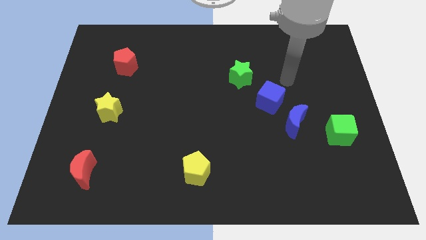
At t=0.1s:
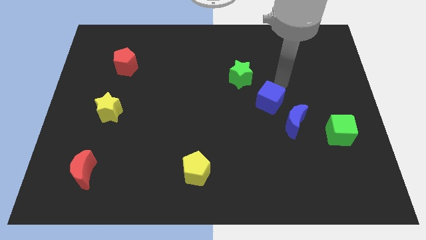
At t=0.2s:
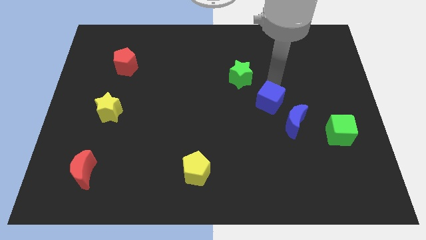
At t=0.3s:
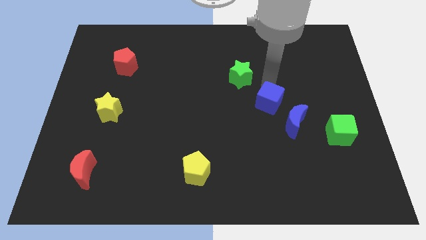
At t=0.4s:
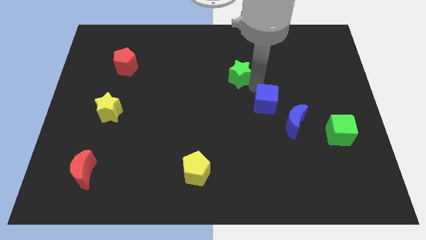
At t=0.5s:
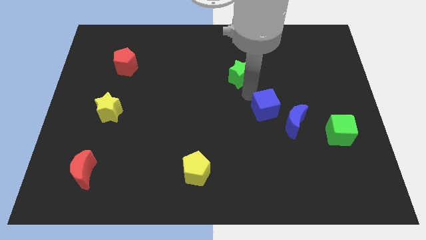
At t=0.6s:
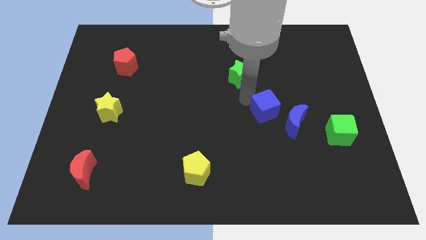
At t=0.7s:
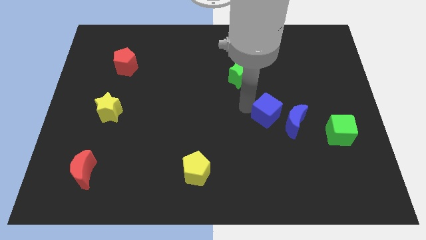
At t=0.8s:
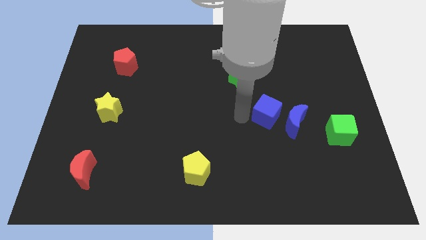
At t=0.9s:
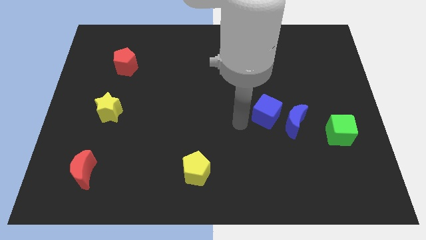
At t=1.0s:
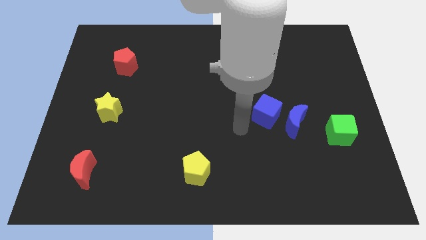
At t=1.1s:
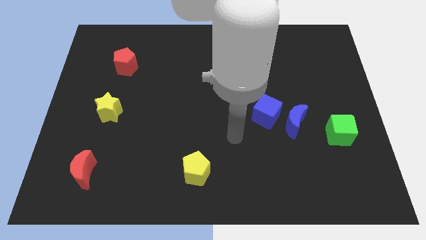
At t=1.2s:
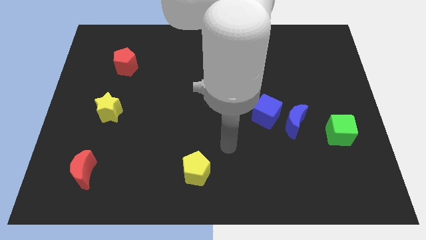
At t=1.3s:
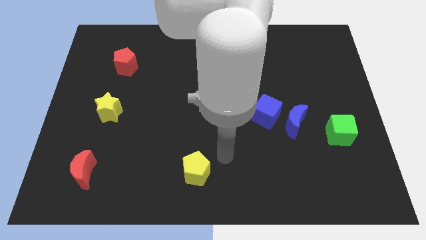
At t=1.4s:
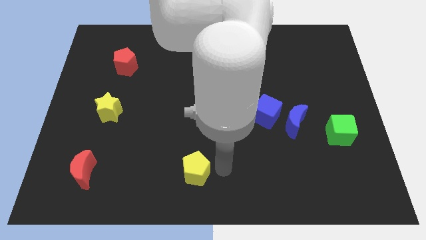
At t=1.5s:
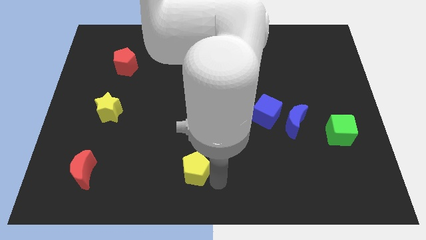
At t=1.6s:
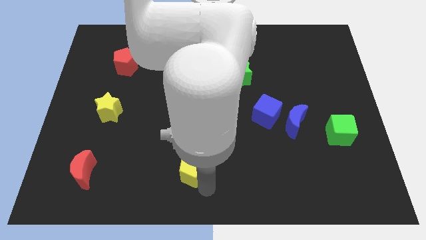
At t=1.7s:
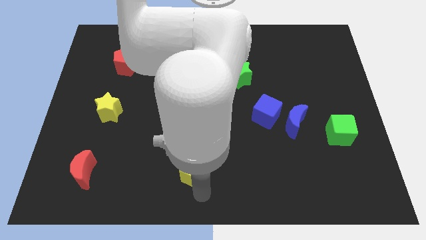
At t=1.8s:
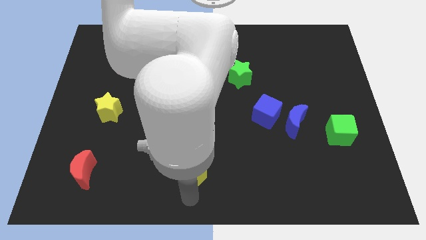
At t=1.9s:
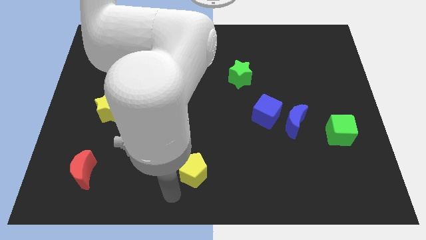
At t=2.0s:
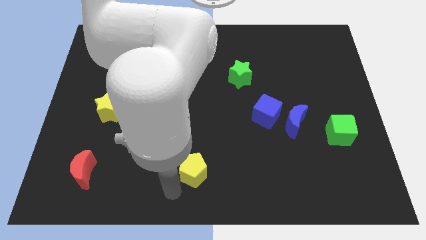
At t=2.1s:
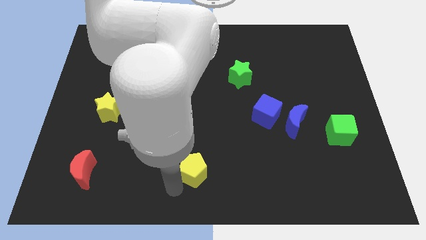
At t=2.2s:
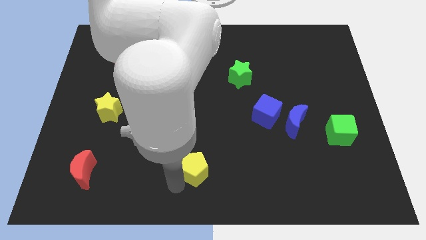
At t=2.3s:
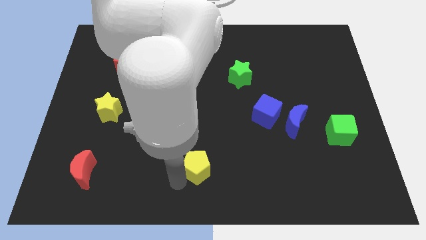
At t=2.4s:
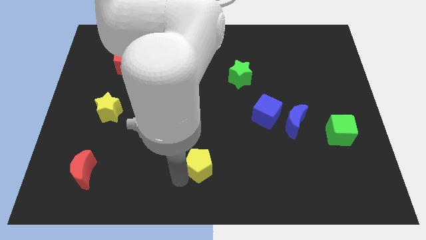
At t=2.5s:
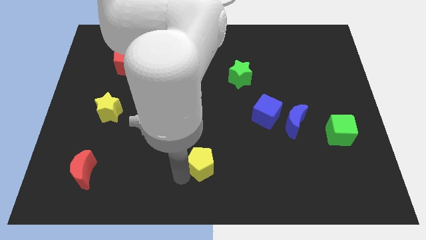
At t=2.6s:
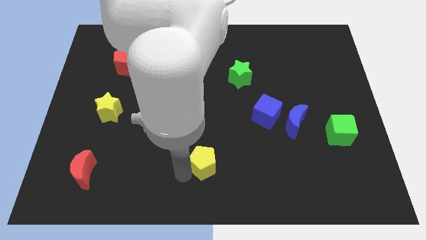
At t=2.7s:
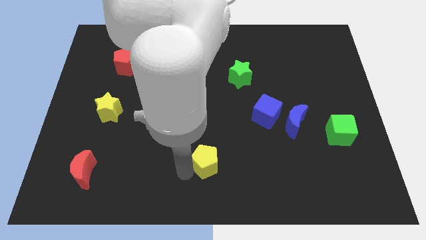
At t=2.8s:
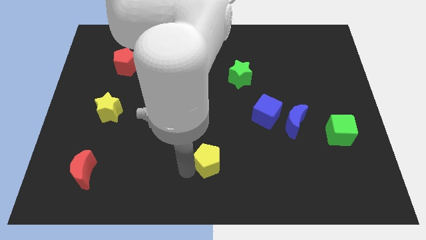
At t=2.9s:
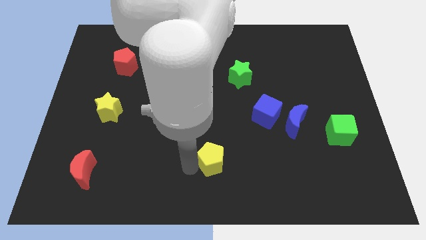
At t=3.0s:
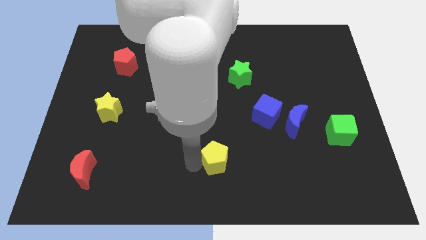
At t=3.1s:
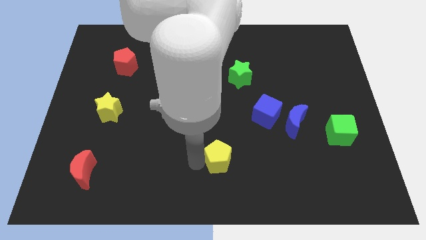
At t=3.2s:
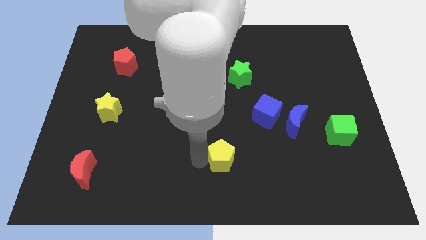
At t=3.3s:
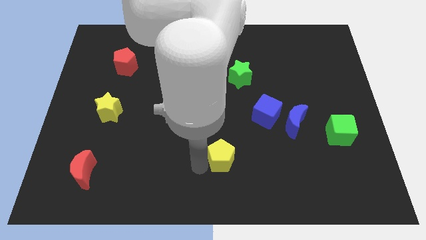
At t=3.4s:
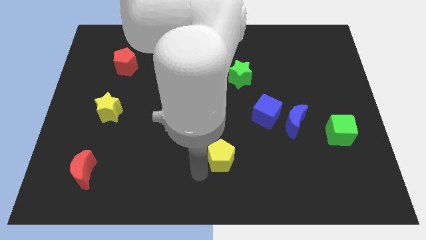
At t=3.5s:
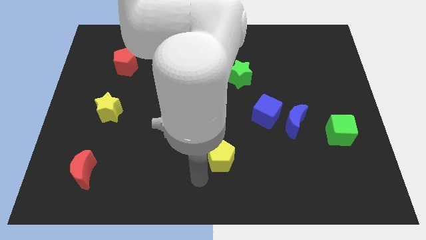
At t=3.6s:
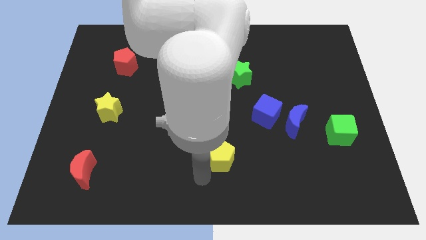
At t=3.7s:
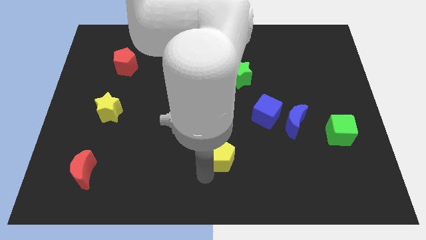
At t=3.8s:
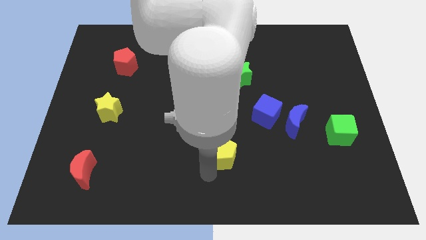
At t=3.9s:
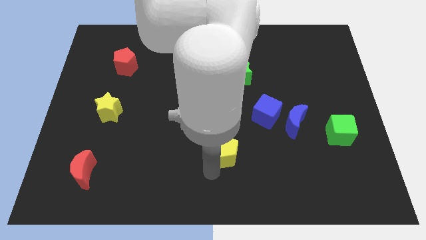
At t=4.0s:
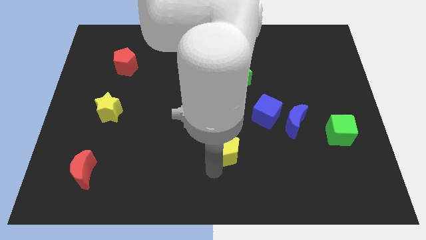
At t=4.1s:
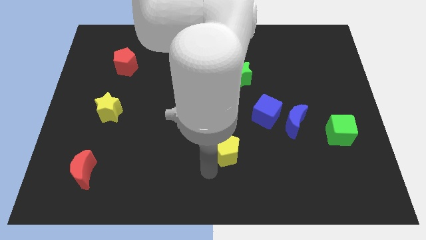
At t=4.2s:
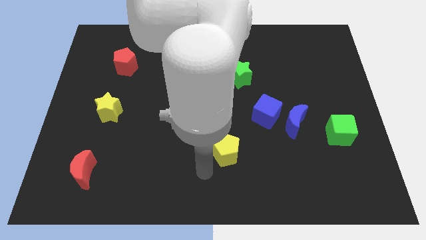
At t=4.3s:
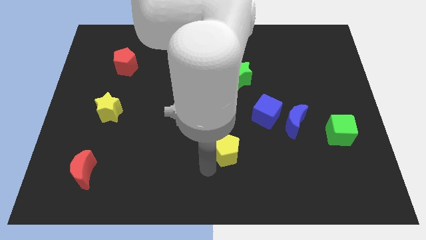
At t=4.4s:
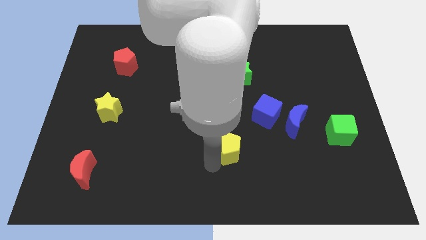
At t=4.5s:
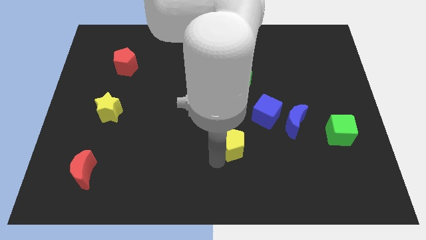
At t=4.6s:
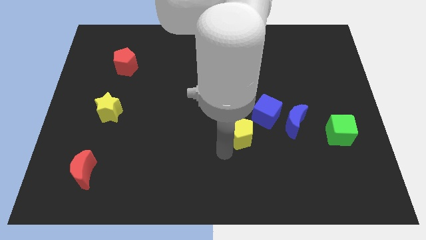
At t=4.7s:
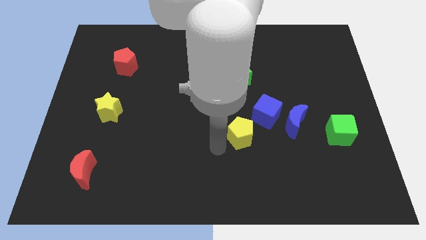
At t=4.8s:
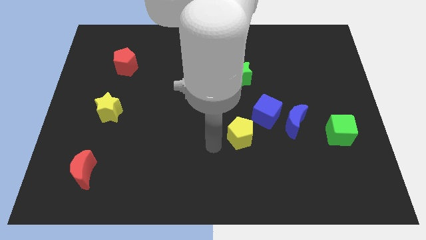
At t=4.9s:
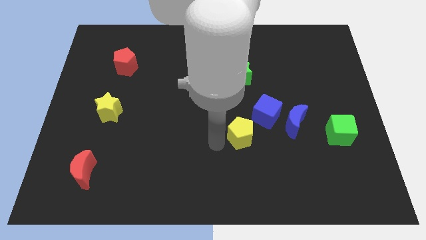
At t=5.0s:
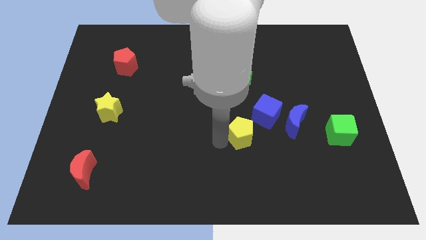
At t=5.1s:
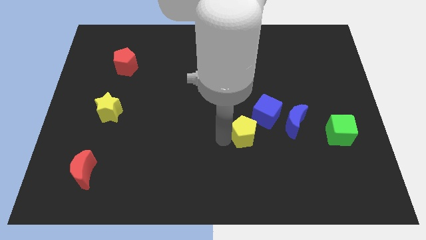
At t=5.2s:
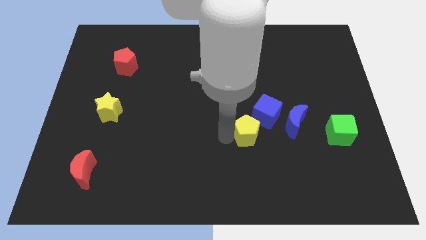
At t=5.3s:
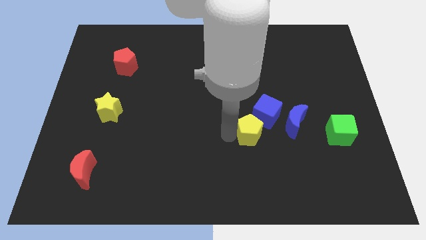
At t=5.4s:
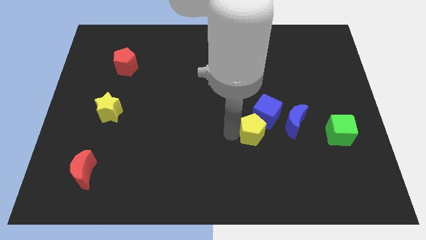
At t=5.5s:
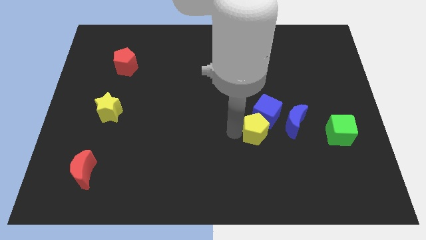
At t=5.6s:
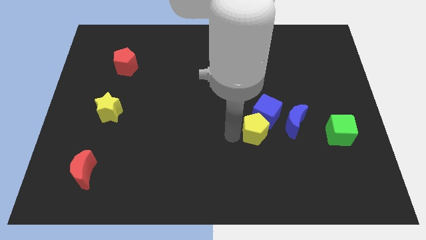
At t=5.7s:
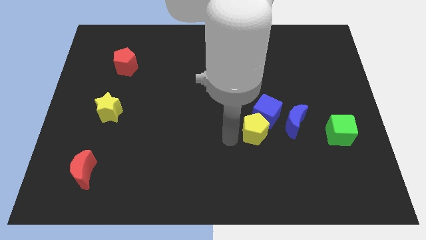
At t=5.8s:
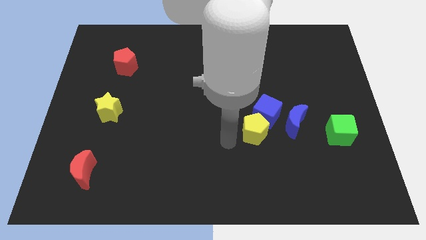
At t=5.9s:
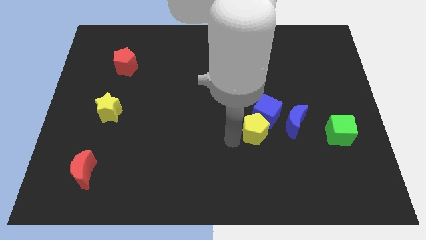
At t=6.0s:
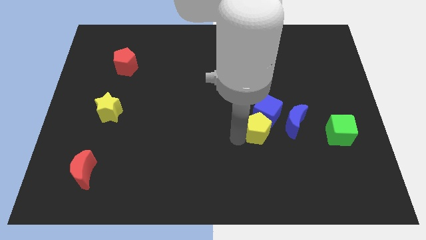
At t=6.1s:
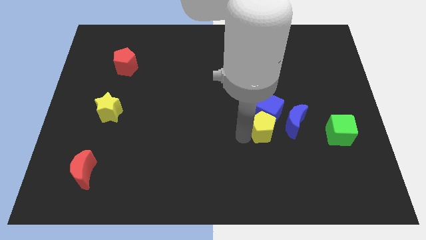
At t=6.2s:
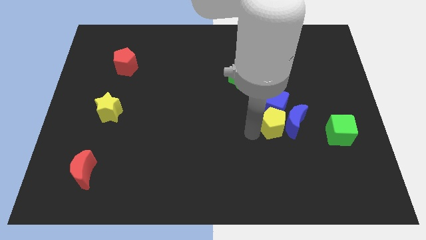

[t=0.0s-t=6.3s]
slide the yellow pentagon to the blue moon

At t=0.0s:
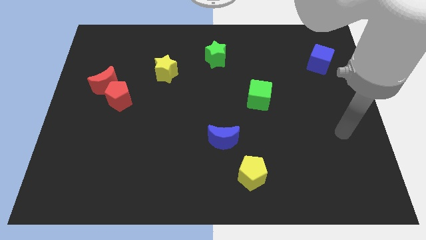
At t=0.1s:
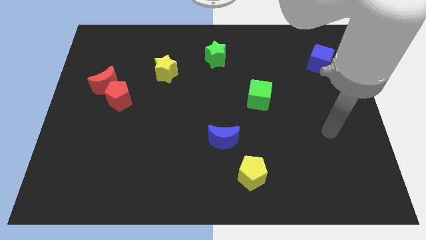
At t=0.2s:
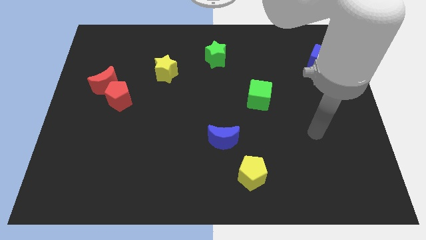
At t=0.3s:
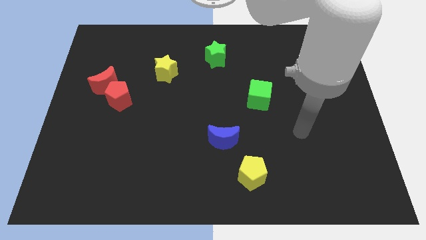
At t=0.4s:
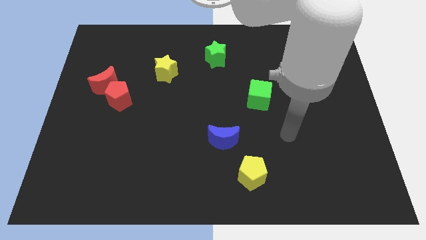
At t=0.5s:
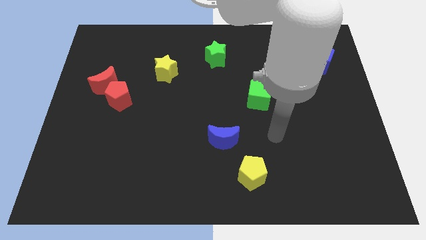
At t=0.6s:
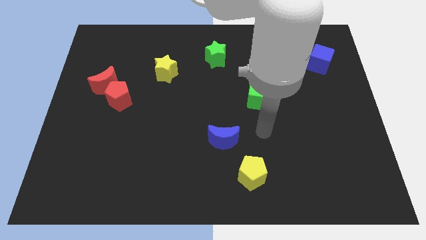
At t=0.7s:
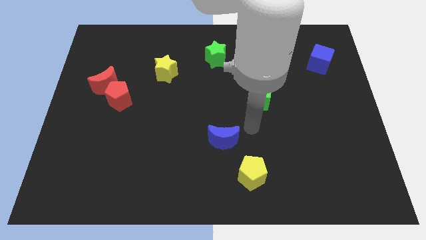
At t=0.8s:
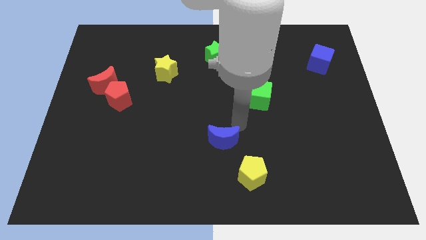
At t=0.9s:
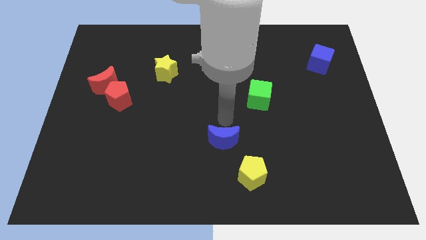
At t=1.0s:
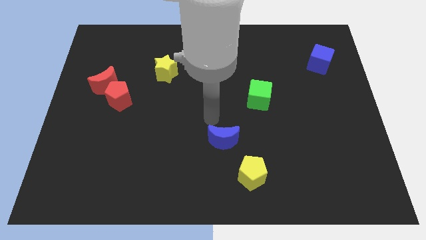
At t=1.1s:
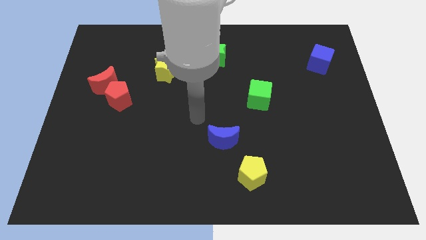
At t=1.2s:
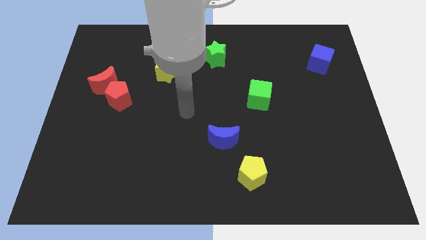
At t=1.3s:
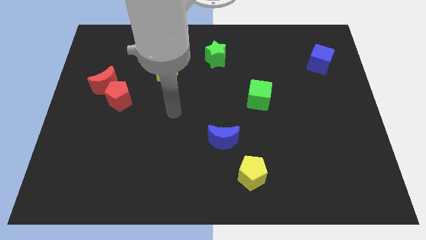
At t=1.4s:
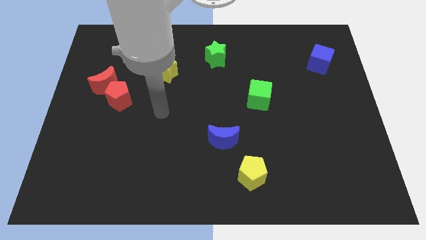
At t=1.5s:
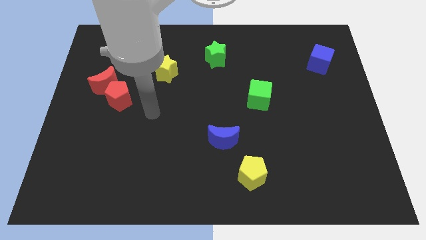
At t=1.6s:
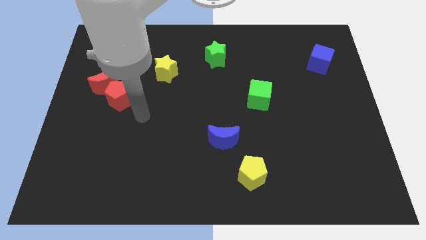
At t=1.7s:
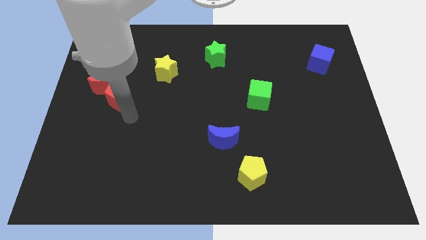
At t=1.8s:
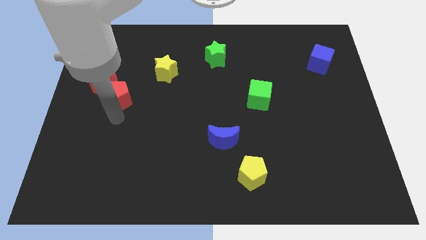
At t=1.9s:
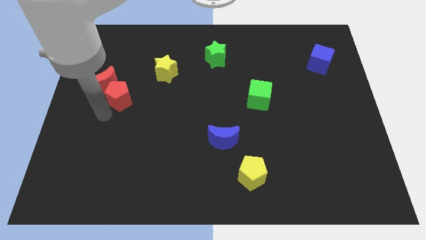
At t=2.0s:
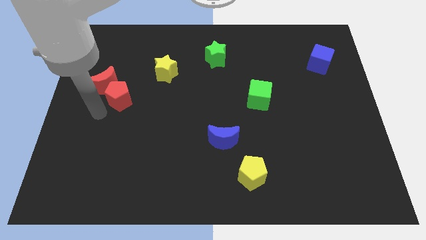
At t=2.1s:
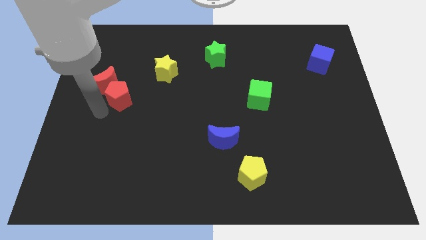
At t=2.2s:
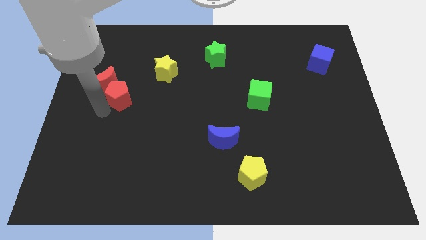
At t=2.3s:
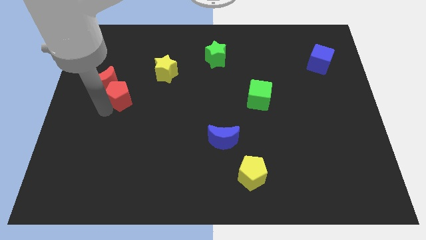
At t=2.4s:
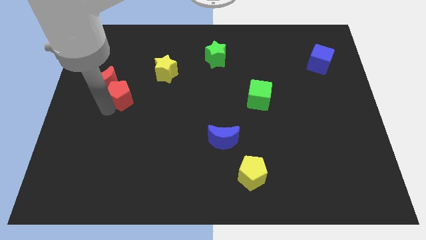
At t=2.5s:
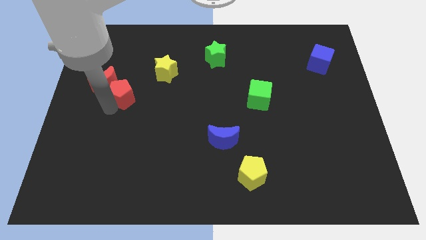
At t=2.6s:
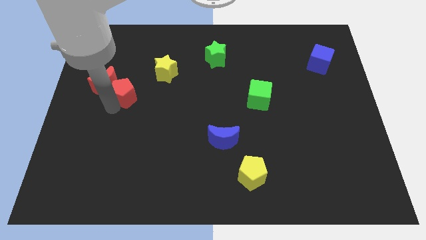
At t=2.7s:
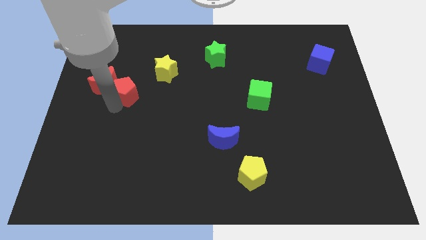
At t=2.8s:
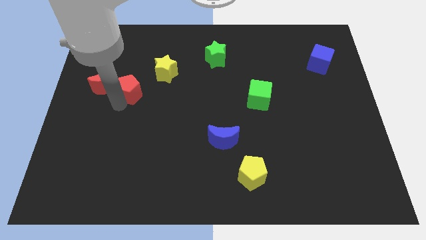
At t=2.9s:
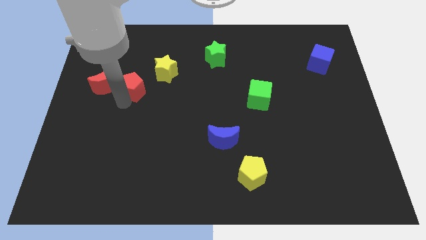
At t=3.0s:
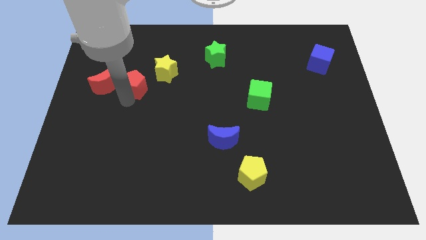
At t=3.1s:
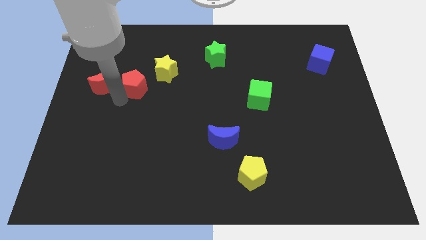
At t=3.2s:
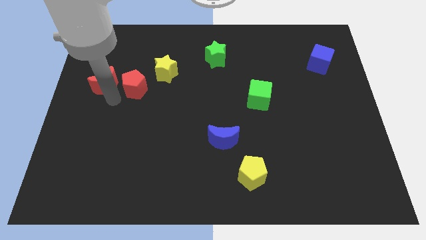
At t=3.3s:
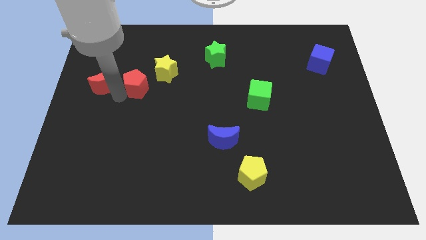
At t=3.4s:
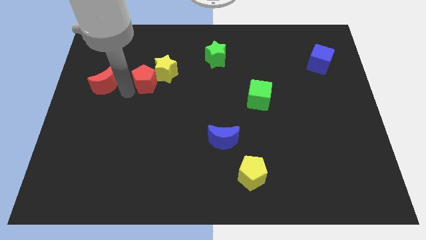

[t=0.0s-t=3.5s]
push the red pentagon to the yellow star
